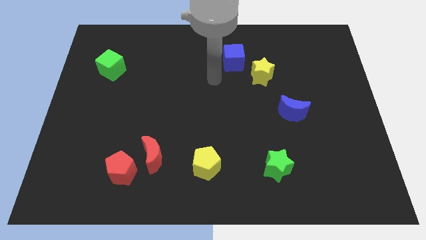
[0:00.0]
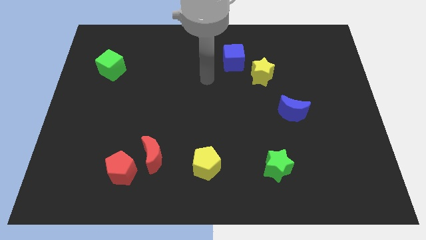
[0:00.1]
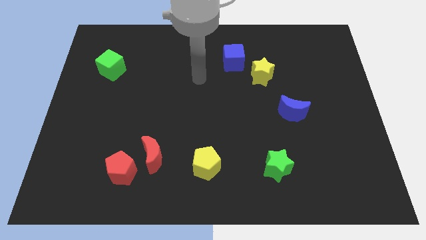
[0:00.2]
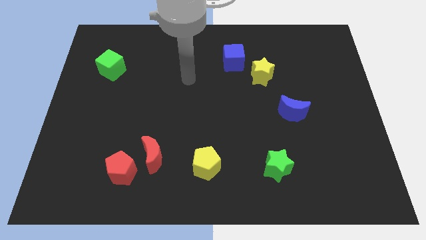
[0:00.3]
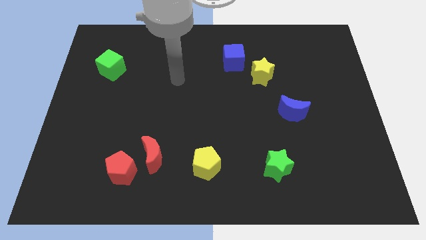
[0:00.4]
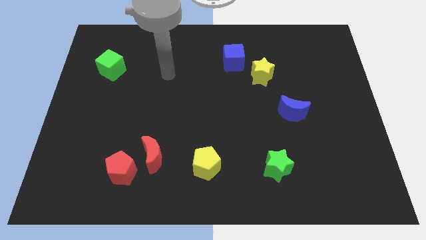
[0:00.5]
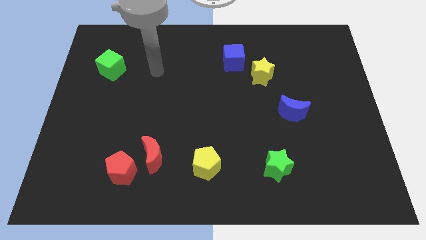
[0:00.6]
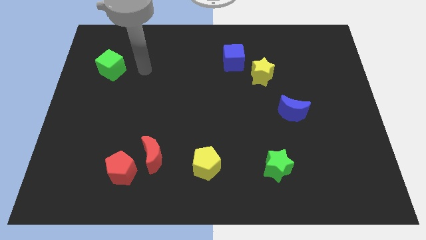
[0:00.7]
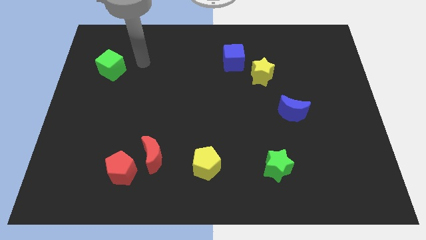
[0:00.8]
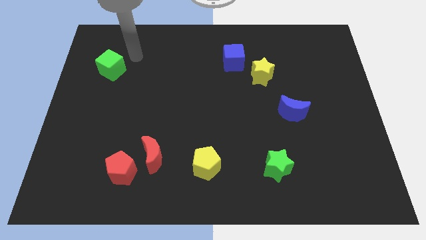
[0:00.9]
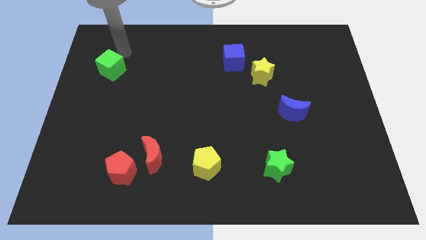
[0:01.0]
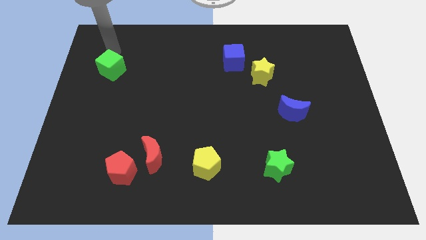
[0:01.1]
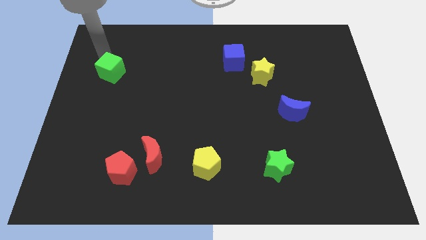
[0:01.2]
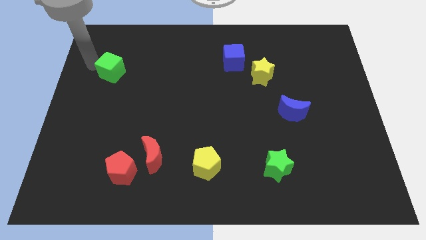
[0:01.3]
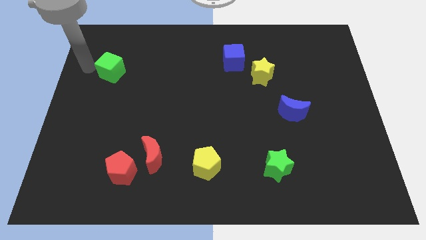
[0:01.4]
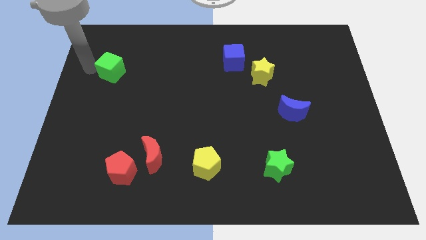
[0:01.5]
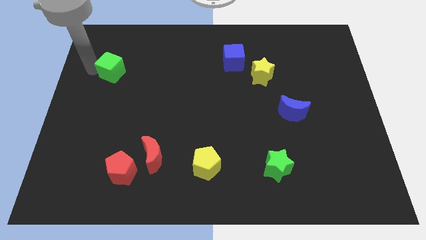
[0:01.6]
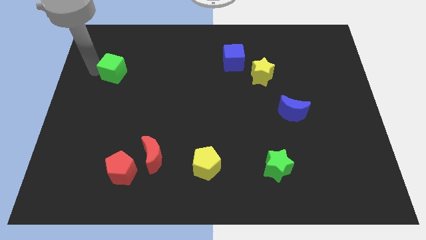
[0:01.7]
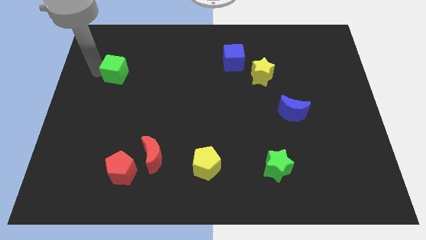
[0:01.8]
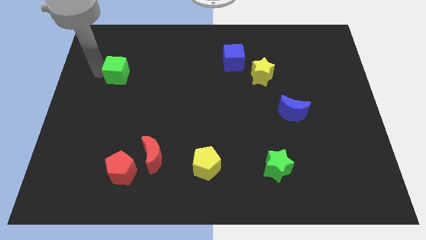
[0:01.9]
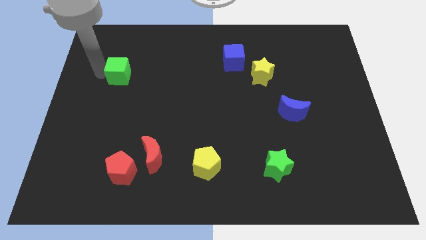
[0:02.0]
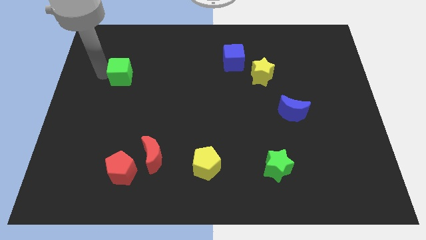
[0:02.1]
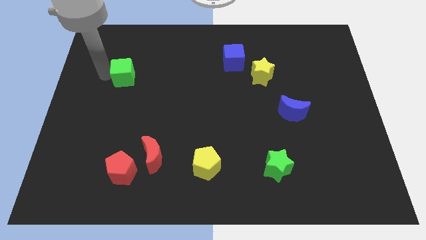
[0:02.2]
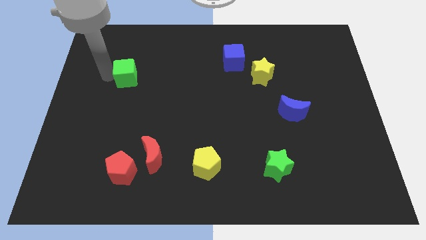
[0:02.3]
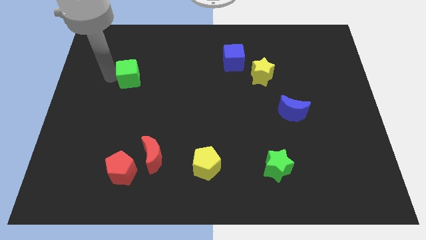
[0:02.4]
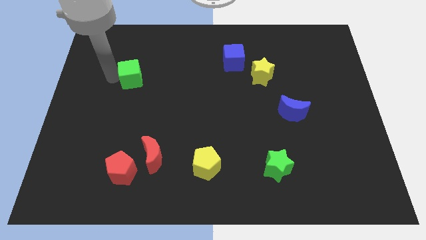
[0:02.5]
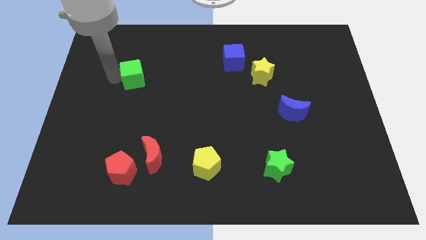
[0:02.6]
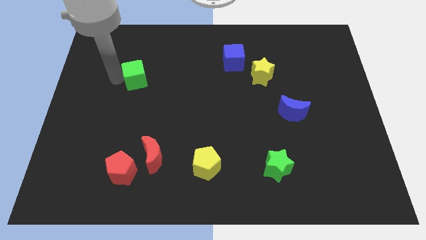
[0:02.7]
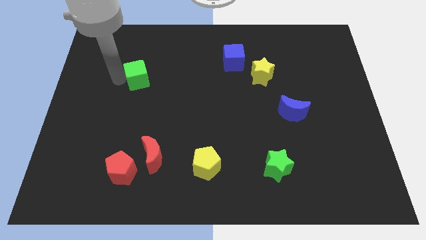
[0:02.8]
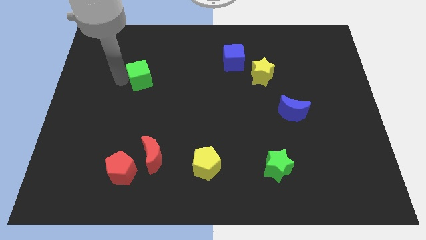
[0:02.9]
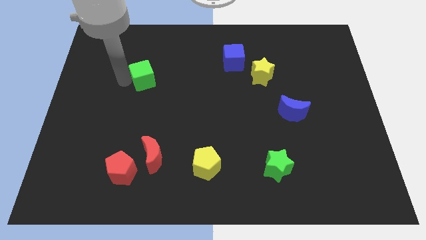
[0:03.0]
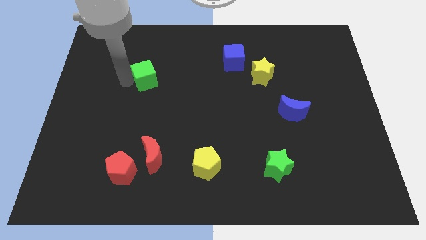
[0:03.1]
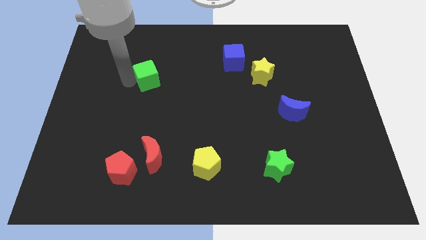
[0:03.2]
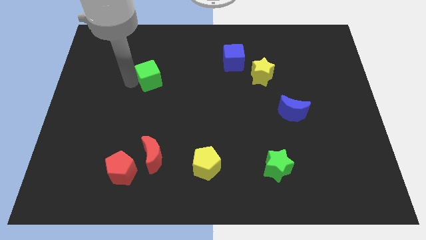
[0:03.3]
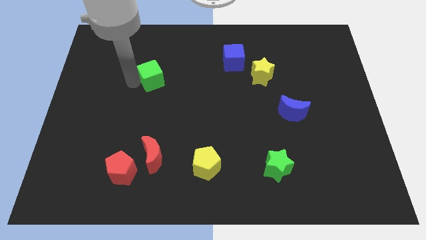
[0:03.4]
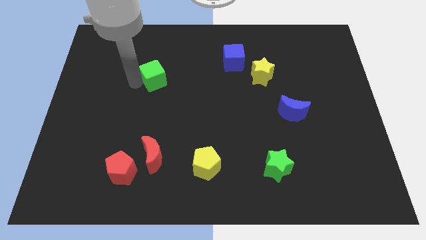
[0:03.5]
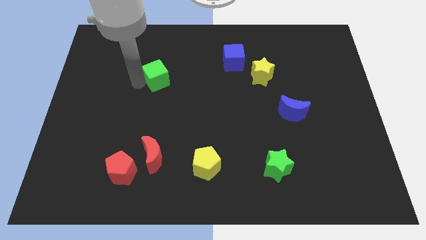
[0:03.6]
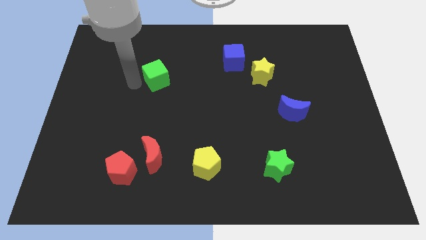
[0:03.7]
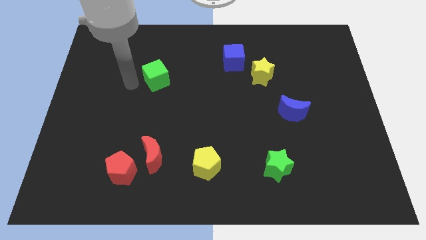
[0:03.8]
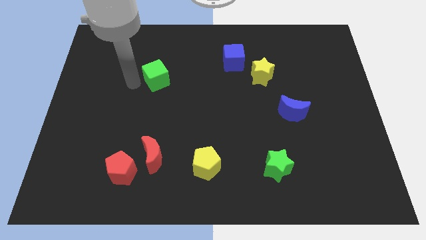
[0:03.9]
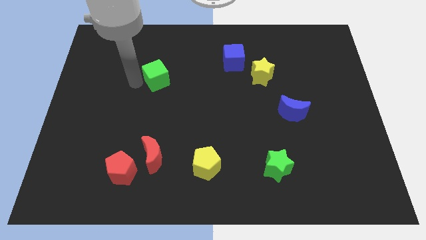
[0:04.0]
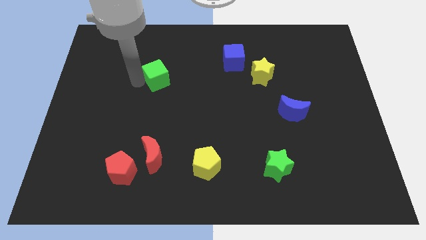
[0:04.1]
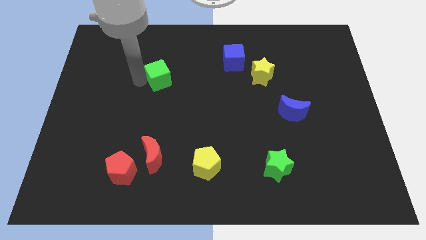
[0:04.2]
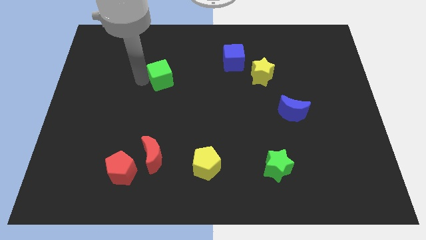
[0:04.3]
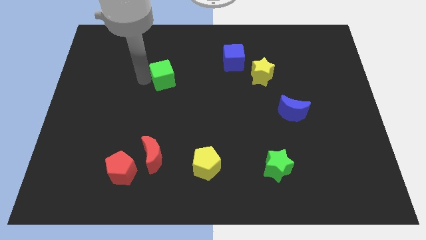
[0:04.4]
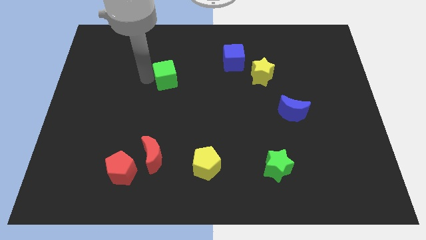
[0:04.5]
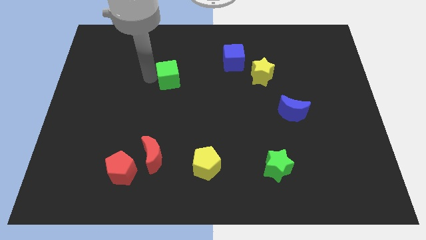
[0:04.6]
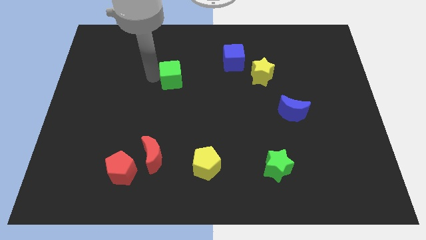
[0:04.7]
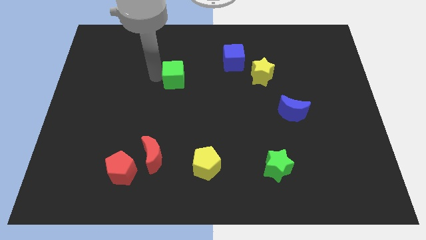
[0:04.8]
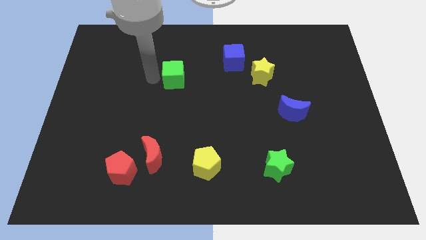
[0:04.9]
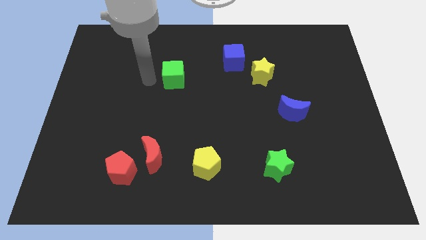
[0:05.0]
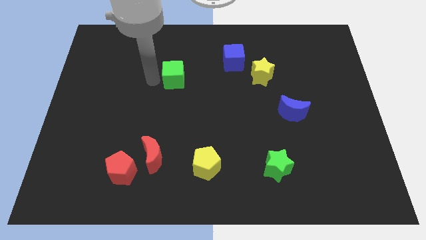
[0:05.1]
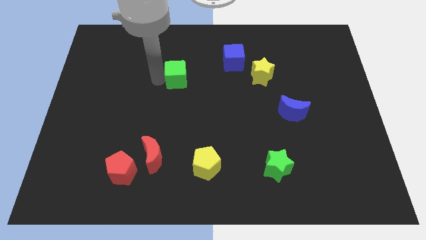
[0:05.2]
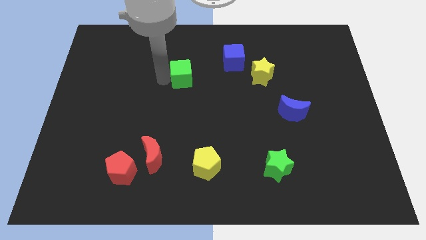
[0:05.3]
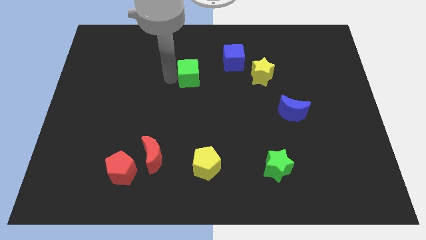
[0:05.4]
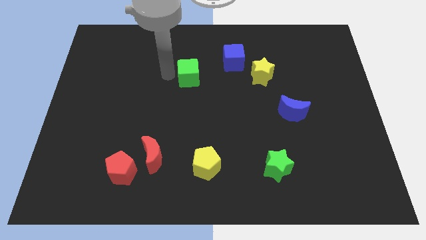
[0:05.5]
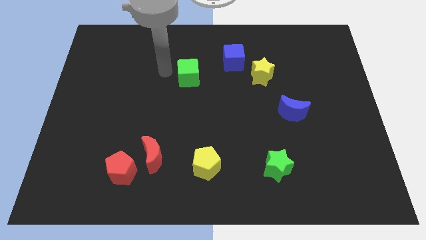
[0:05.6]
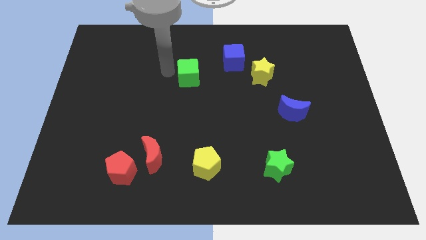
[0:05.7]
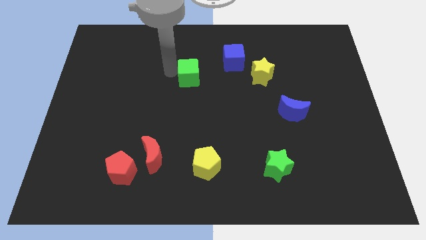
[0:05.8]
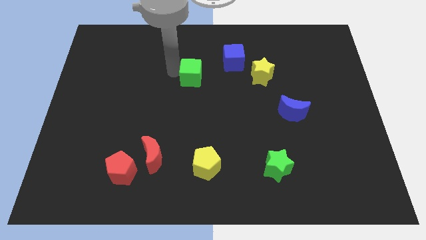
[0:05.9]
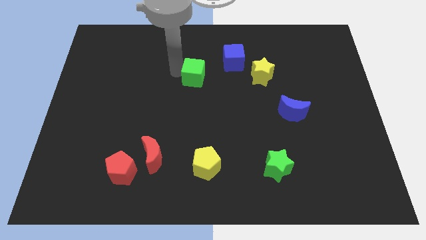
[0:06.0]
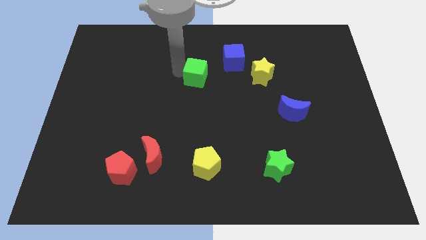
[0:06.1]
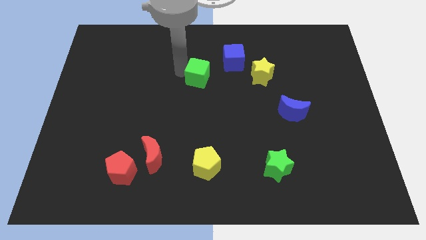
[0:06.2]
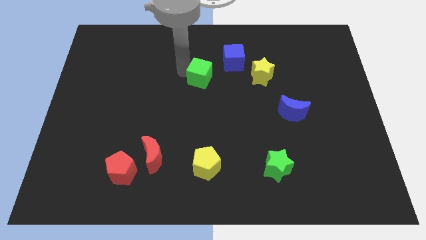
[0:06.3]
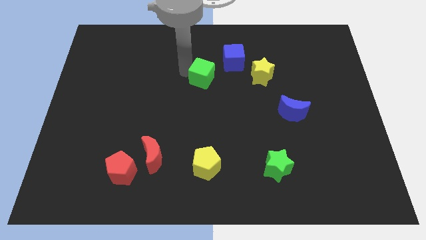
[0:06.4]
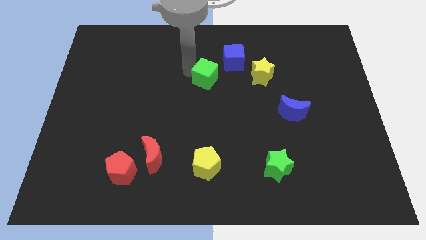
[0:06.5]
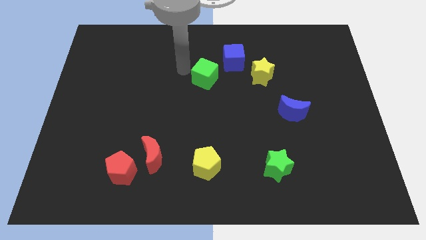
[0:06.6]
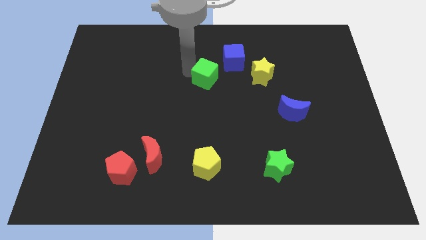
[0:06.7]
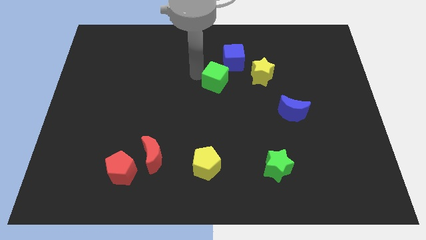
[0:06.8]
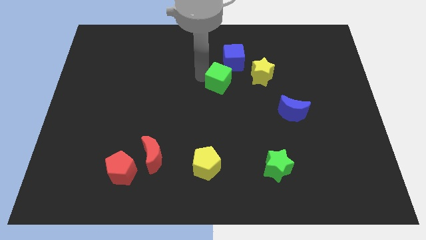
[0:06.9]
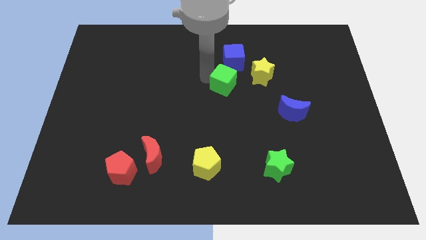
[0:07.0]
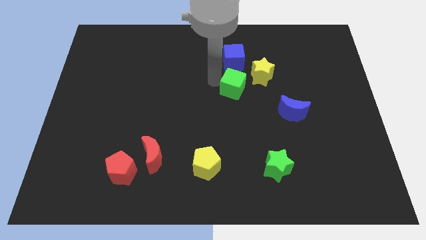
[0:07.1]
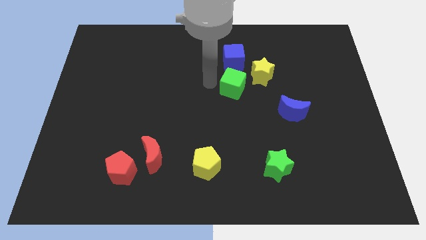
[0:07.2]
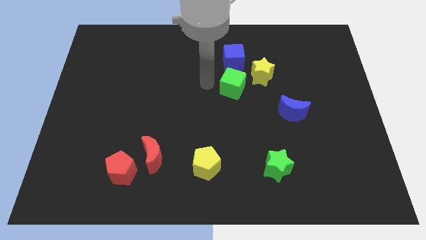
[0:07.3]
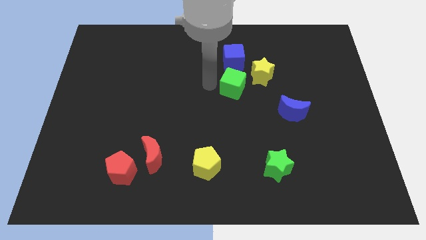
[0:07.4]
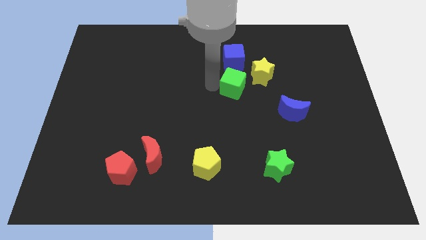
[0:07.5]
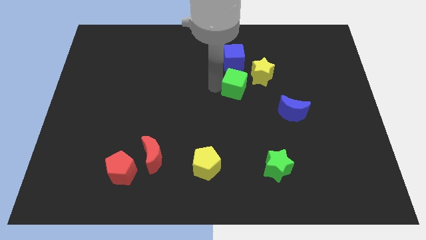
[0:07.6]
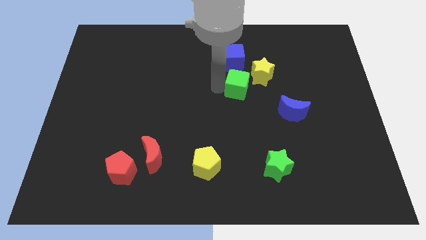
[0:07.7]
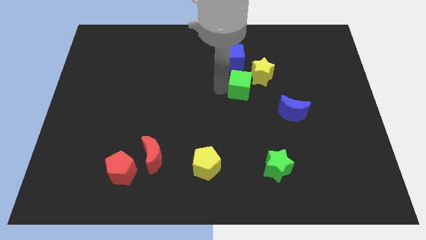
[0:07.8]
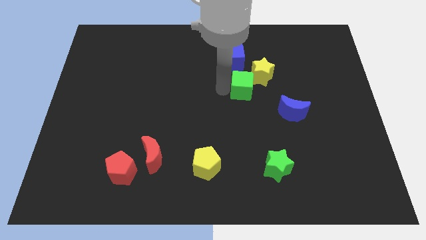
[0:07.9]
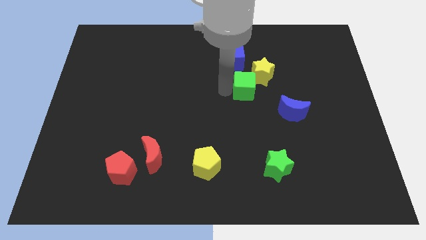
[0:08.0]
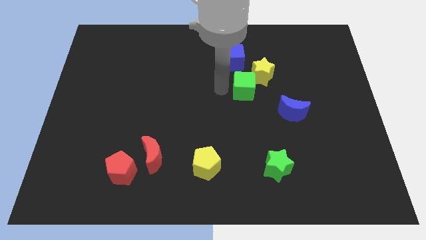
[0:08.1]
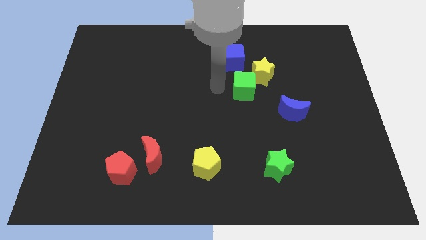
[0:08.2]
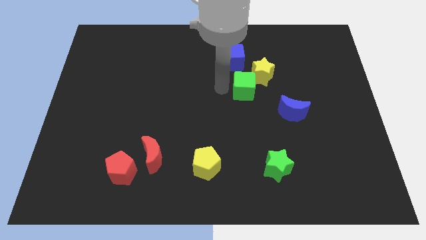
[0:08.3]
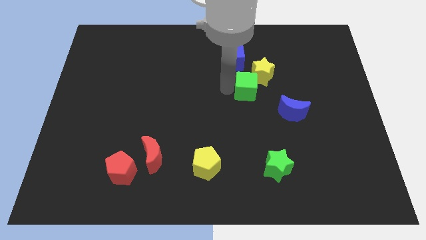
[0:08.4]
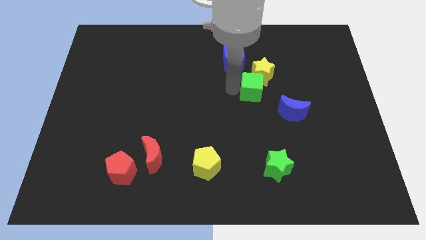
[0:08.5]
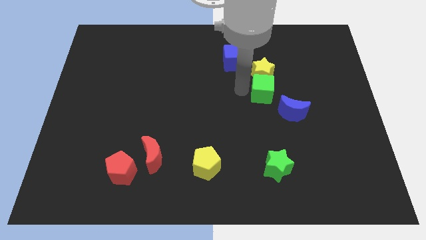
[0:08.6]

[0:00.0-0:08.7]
put the green cube to the bottom right side of the yellow star
